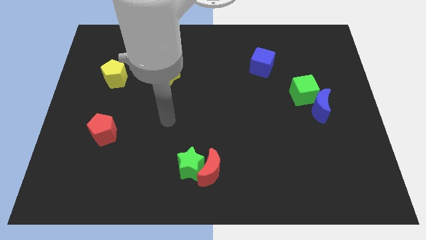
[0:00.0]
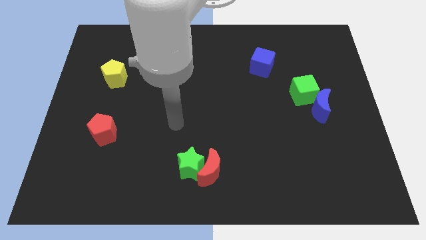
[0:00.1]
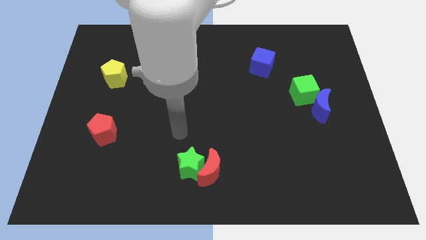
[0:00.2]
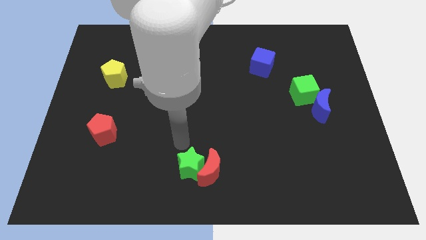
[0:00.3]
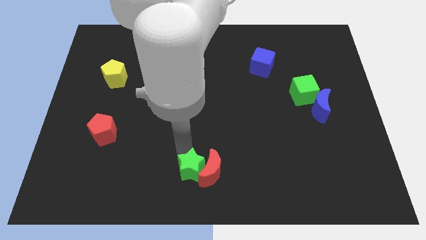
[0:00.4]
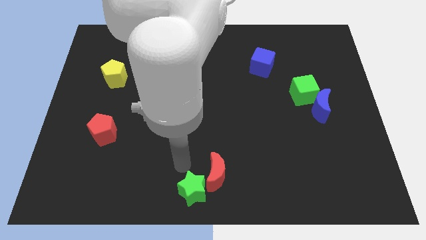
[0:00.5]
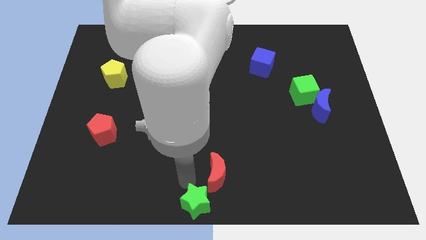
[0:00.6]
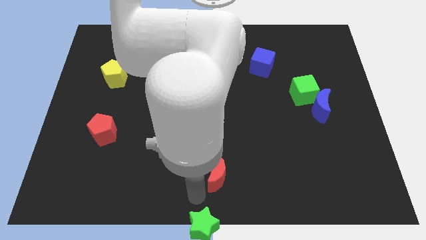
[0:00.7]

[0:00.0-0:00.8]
separate the red moon from the green star

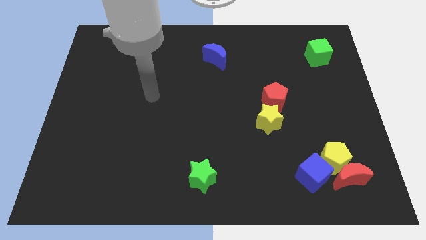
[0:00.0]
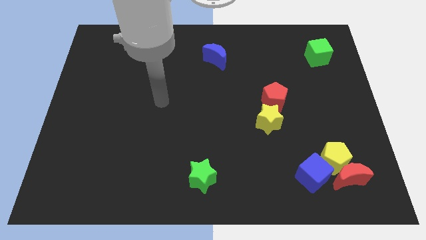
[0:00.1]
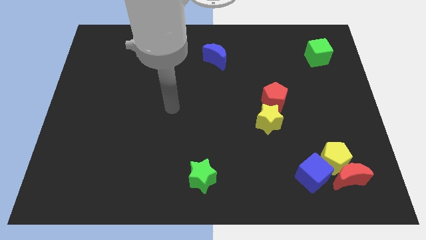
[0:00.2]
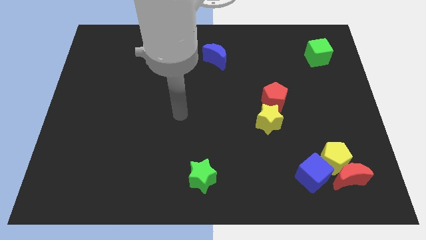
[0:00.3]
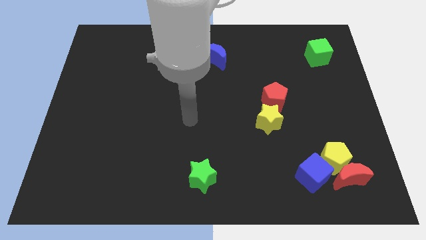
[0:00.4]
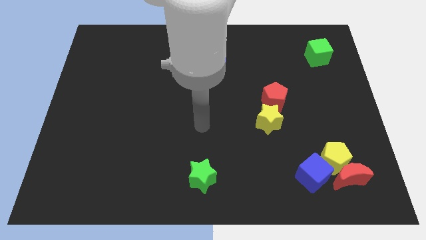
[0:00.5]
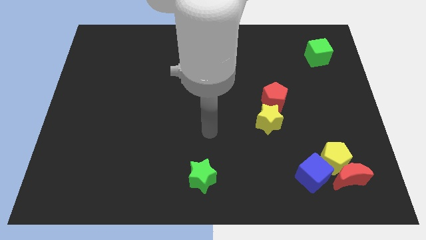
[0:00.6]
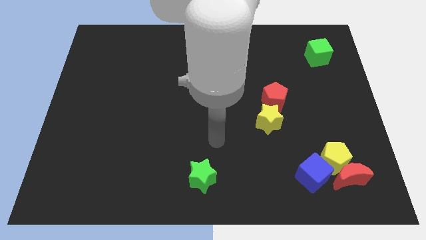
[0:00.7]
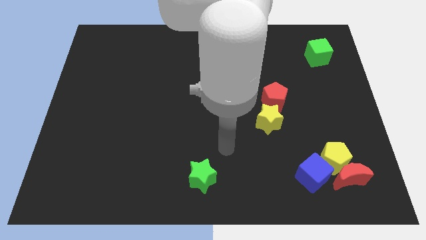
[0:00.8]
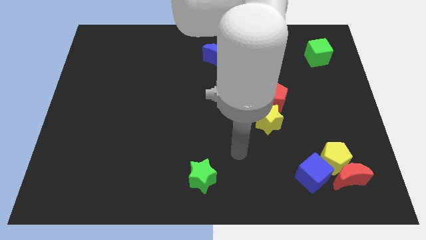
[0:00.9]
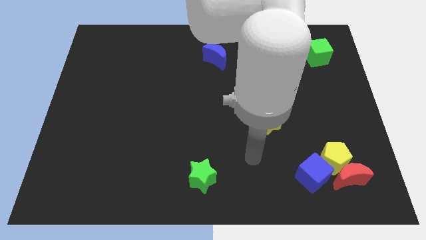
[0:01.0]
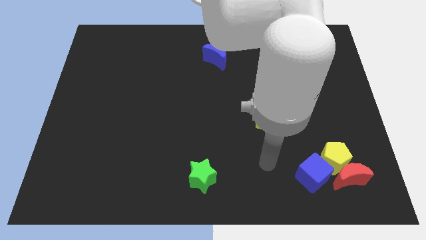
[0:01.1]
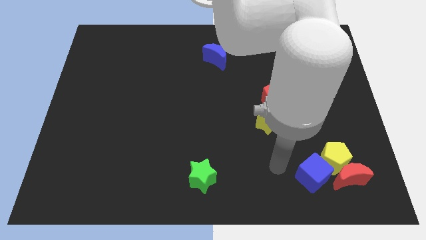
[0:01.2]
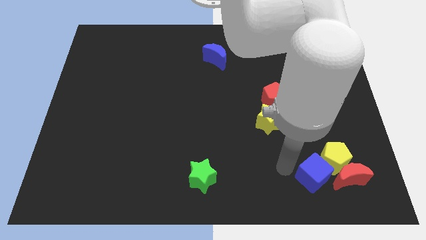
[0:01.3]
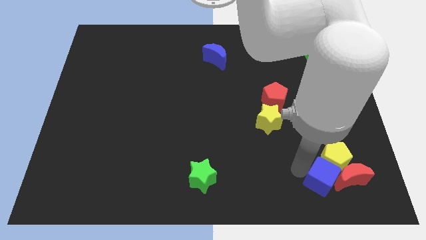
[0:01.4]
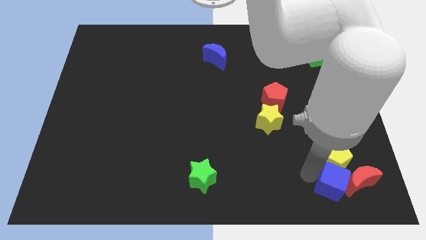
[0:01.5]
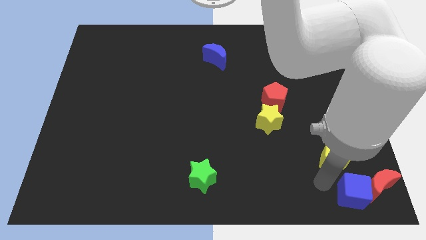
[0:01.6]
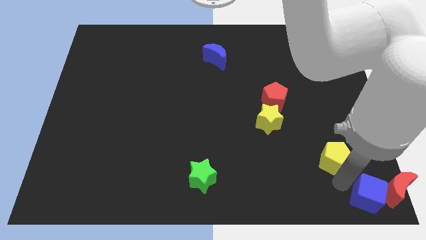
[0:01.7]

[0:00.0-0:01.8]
separate the yellow pentagon from the red moon and blue cube

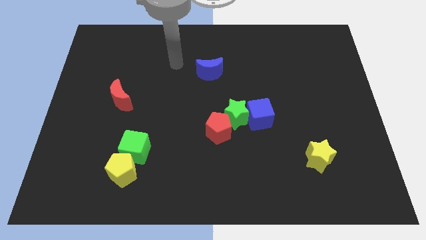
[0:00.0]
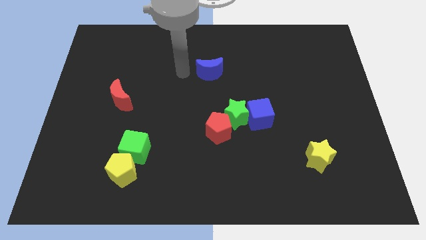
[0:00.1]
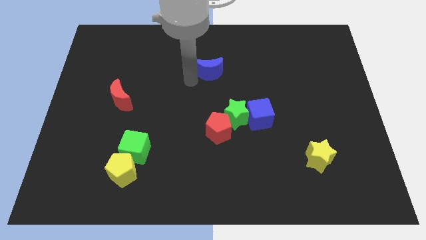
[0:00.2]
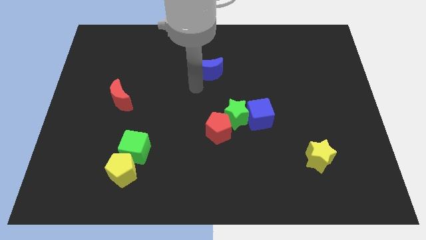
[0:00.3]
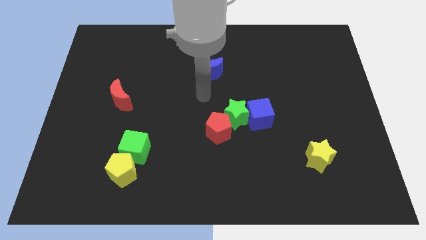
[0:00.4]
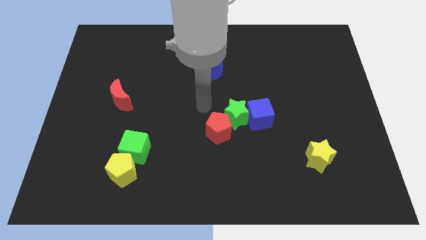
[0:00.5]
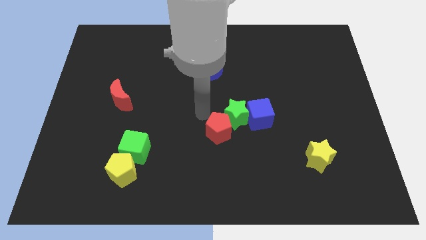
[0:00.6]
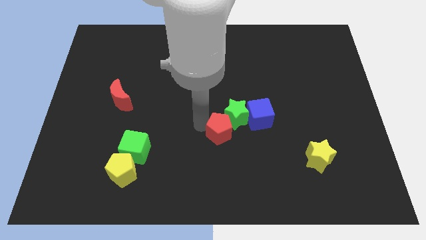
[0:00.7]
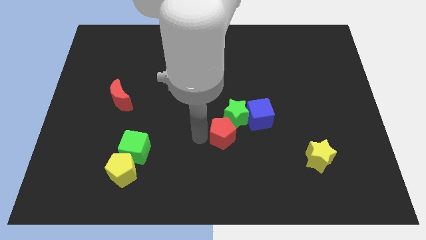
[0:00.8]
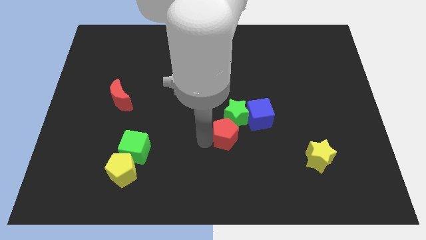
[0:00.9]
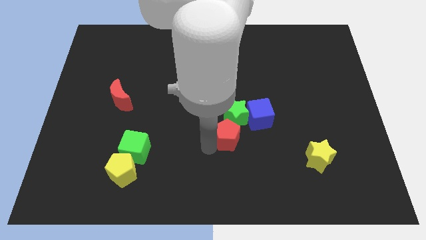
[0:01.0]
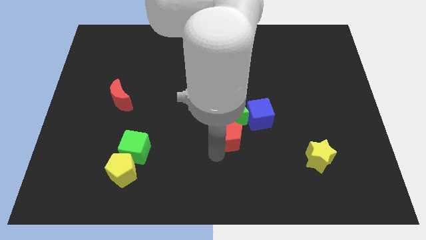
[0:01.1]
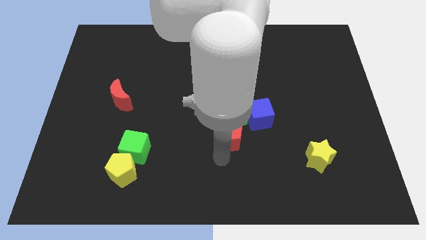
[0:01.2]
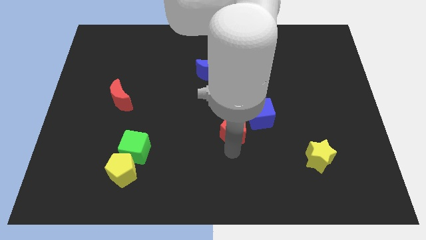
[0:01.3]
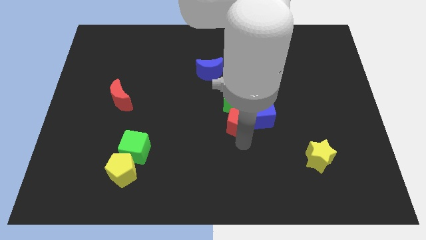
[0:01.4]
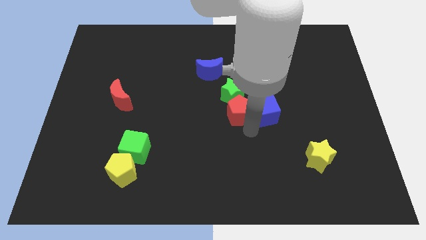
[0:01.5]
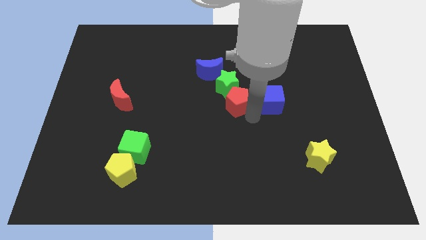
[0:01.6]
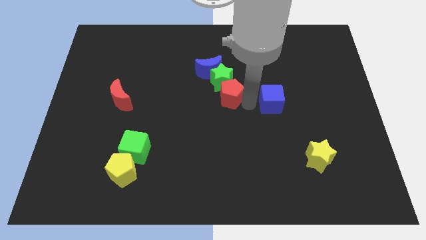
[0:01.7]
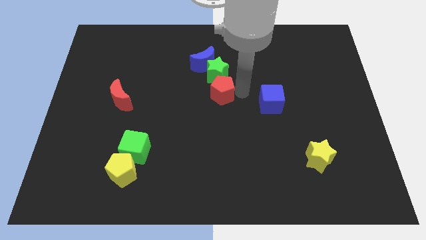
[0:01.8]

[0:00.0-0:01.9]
move the green star away from the red pentagon and blue cube

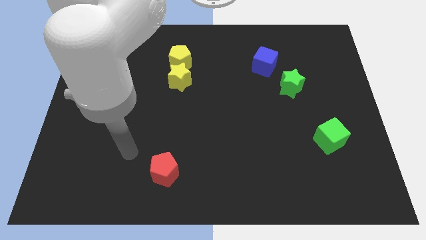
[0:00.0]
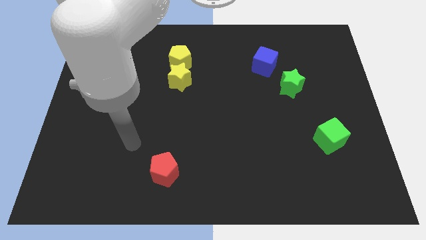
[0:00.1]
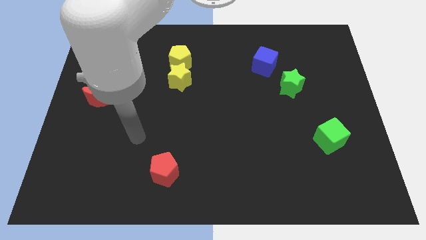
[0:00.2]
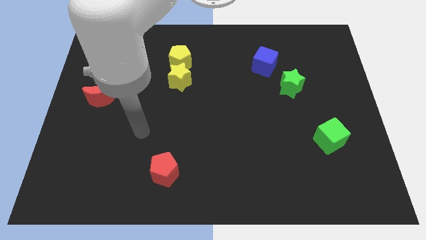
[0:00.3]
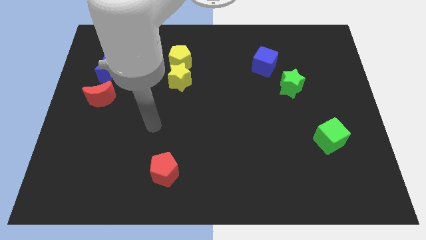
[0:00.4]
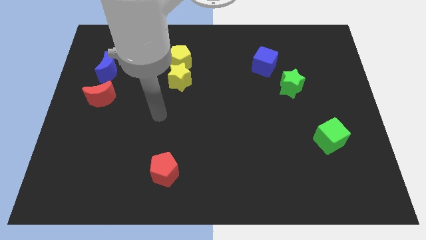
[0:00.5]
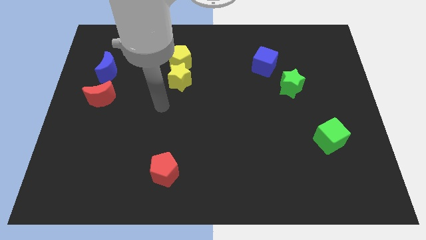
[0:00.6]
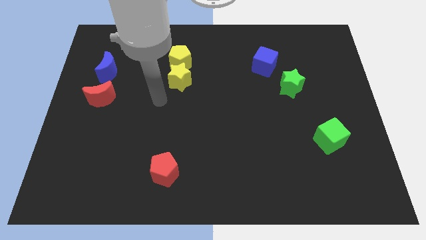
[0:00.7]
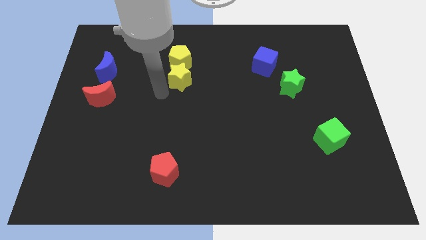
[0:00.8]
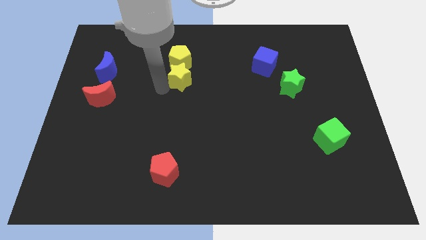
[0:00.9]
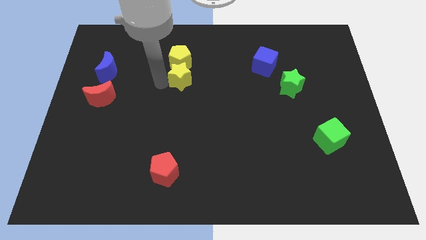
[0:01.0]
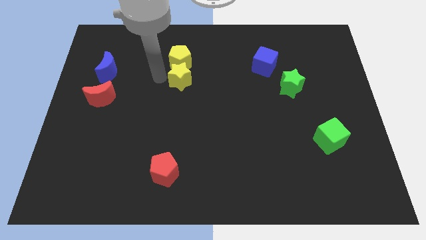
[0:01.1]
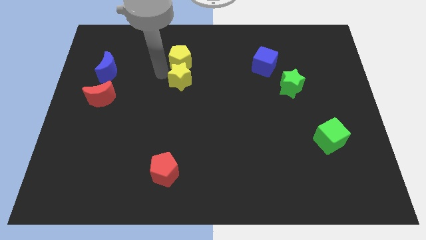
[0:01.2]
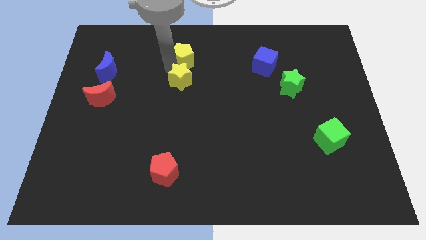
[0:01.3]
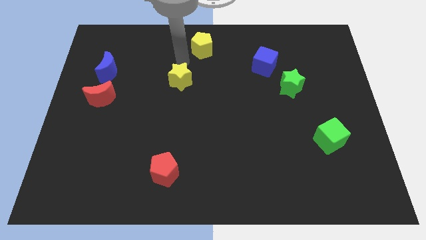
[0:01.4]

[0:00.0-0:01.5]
separate the yellow star from the yellow pentagon

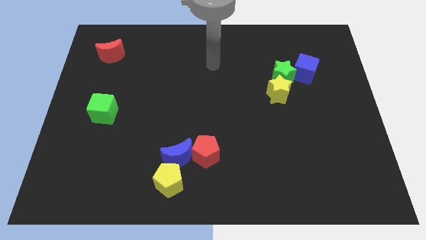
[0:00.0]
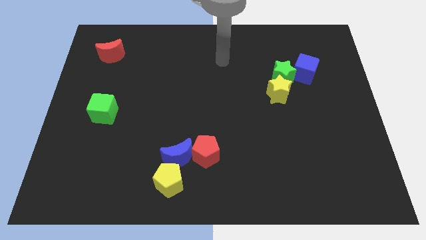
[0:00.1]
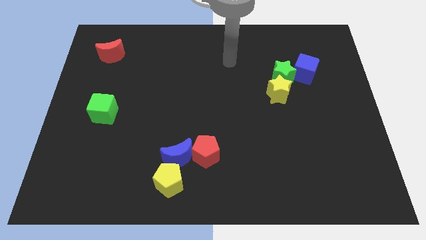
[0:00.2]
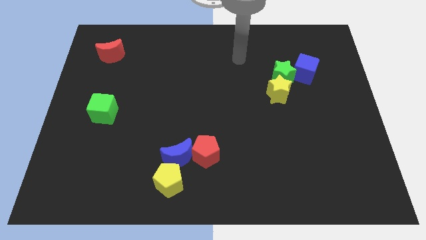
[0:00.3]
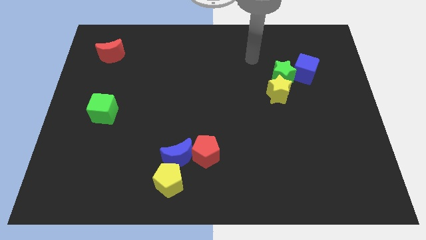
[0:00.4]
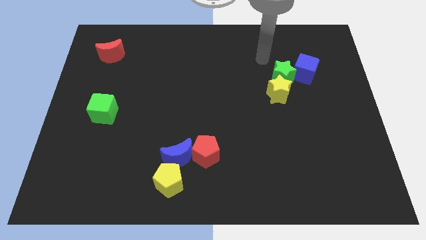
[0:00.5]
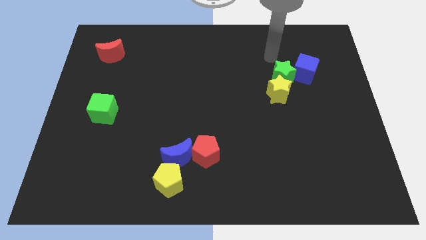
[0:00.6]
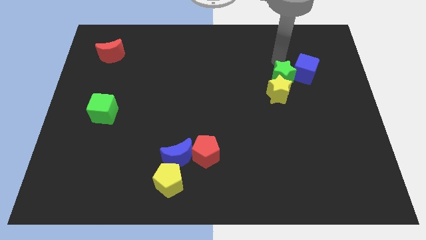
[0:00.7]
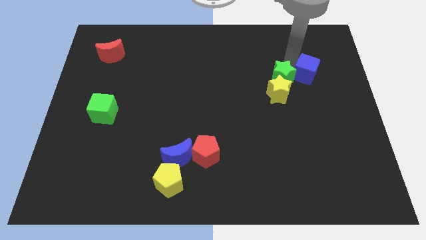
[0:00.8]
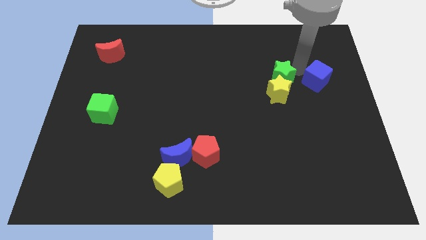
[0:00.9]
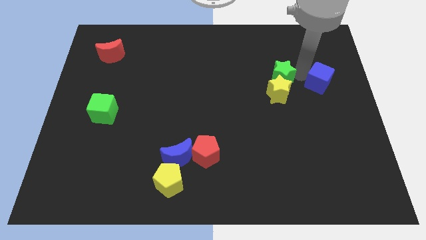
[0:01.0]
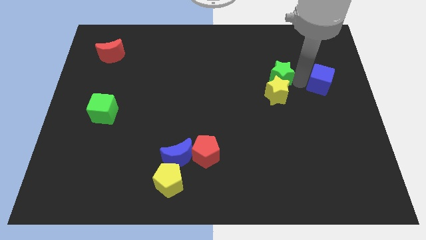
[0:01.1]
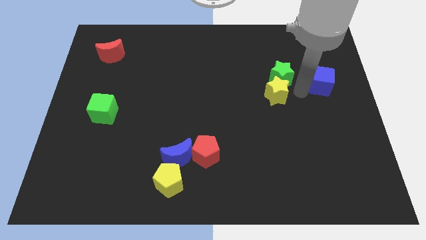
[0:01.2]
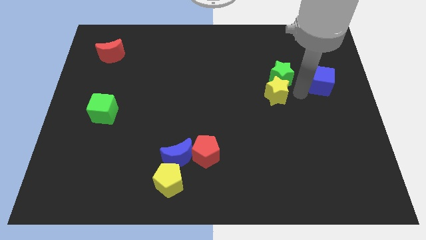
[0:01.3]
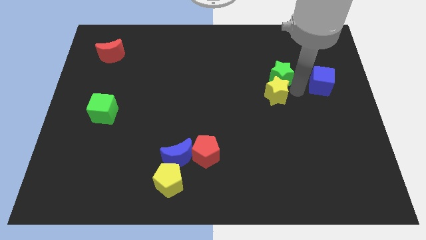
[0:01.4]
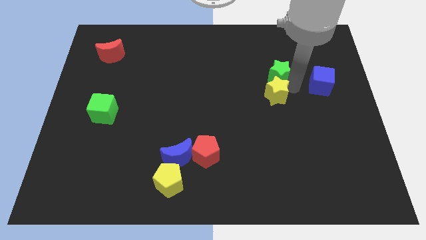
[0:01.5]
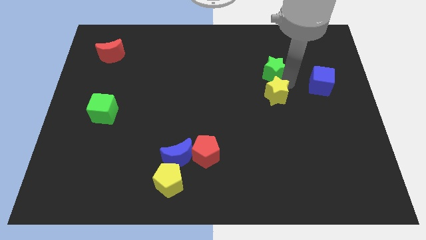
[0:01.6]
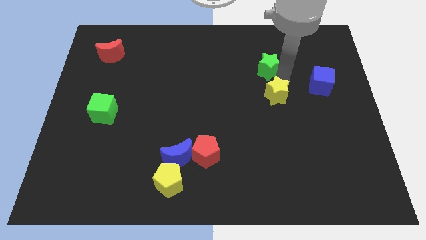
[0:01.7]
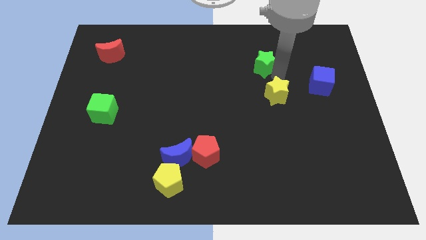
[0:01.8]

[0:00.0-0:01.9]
move the green star away from the yellow star and blue cube

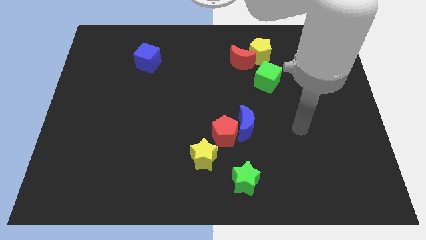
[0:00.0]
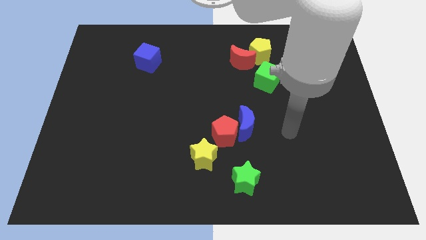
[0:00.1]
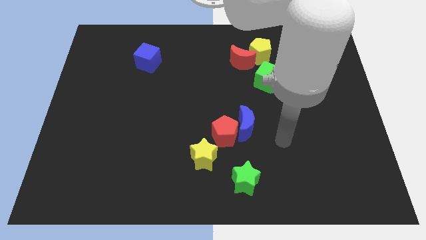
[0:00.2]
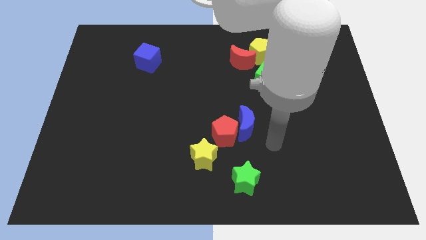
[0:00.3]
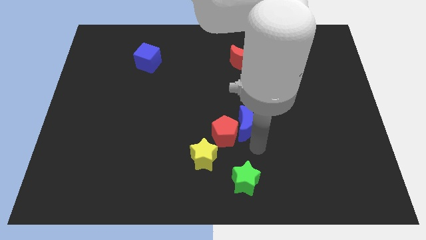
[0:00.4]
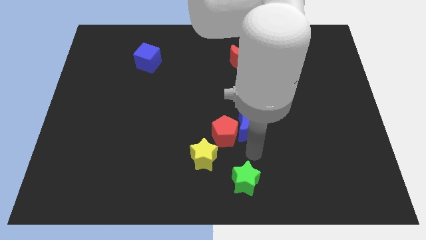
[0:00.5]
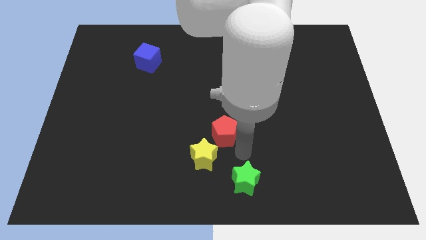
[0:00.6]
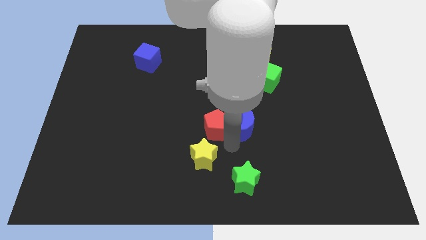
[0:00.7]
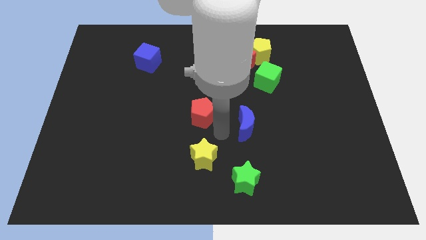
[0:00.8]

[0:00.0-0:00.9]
separate the blue moon from the red pentagon

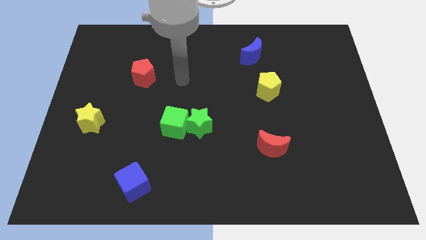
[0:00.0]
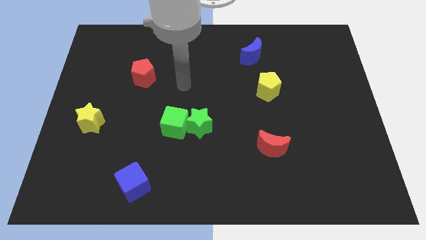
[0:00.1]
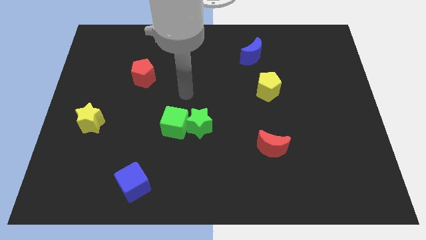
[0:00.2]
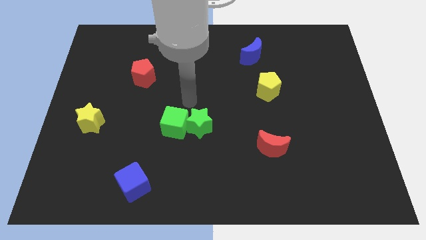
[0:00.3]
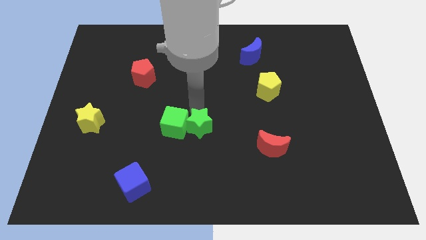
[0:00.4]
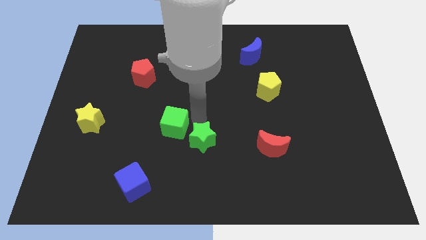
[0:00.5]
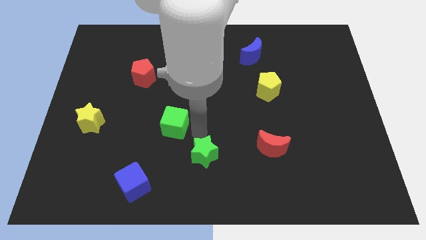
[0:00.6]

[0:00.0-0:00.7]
separate the green cube from the green star
